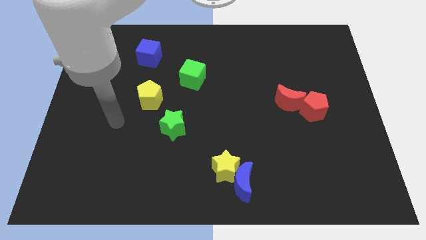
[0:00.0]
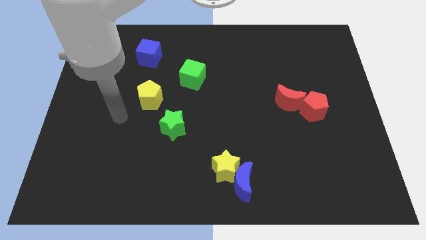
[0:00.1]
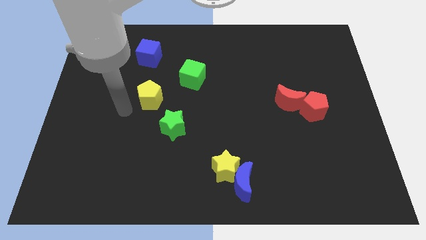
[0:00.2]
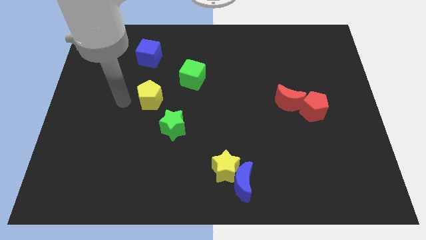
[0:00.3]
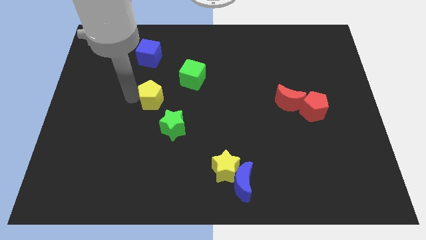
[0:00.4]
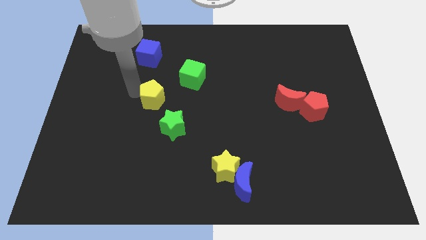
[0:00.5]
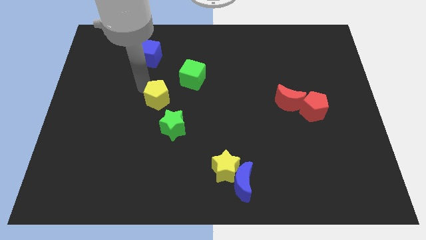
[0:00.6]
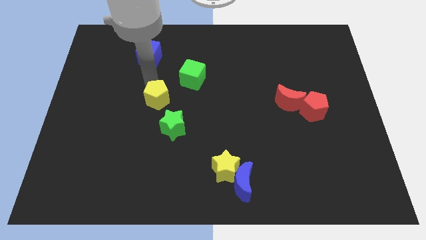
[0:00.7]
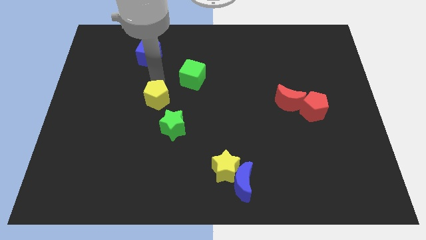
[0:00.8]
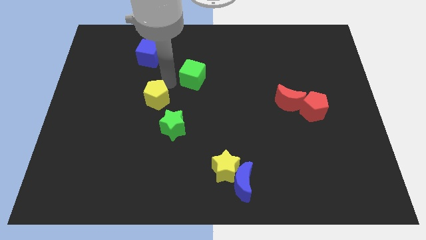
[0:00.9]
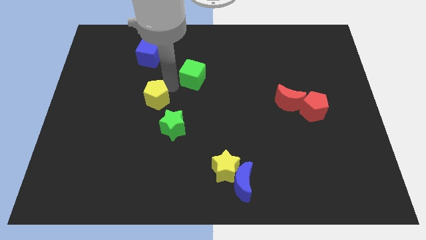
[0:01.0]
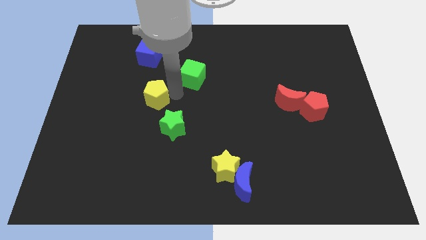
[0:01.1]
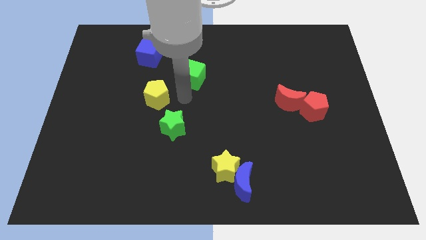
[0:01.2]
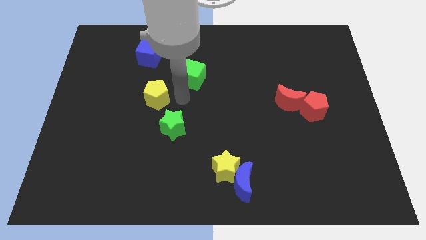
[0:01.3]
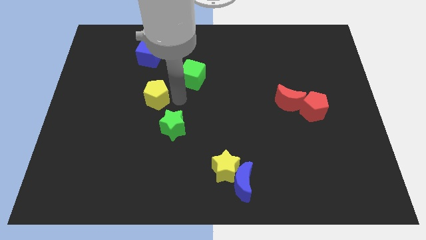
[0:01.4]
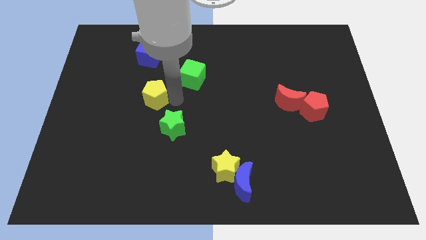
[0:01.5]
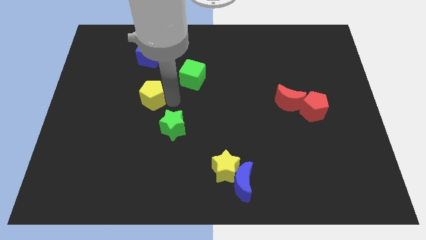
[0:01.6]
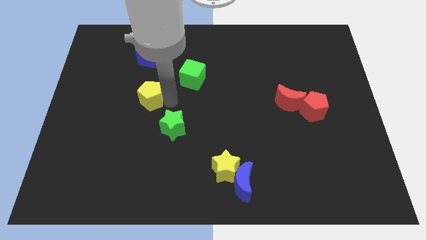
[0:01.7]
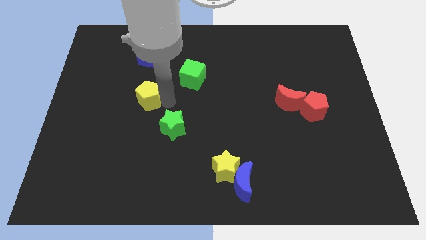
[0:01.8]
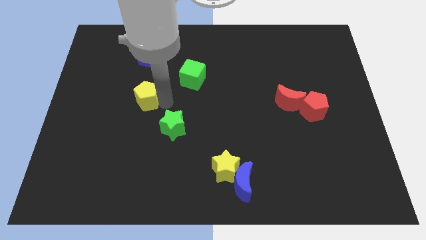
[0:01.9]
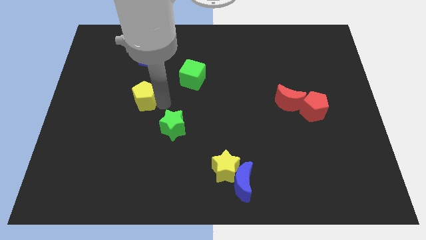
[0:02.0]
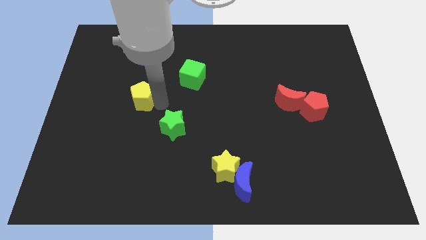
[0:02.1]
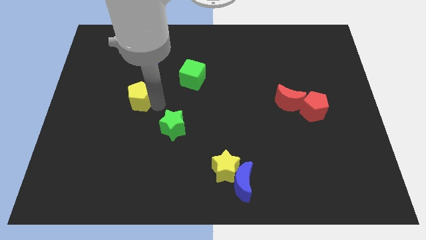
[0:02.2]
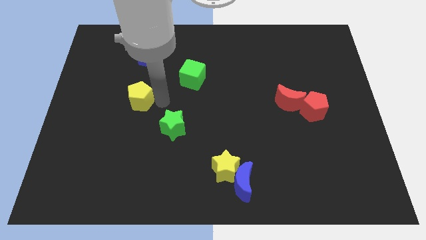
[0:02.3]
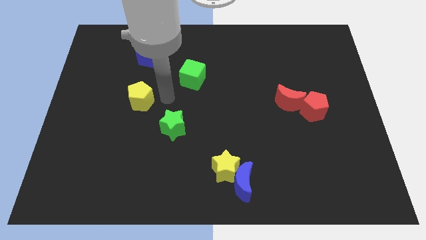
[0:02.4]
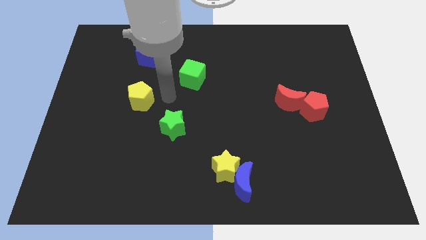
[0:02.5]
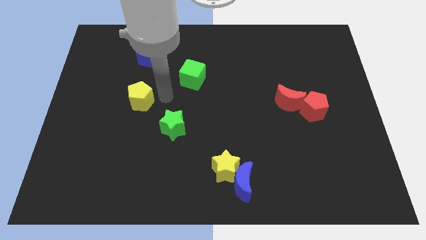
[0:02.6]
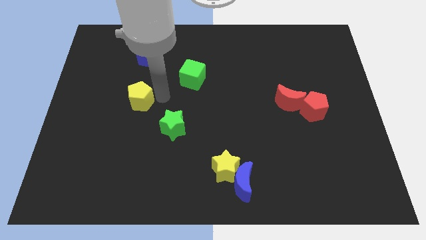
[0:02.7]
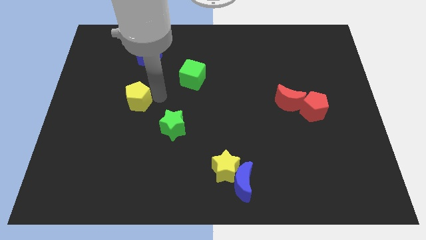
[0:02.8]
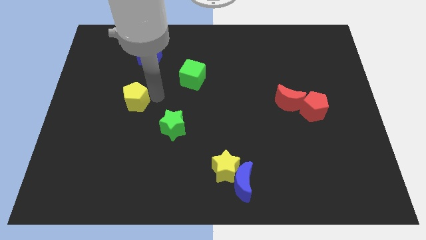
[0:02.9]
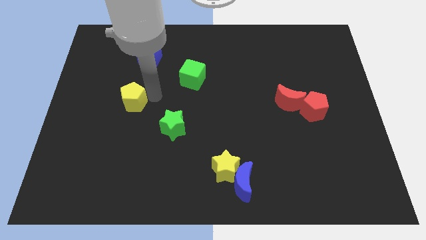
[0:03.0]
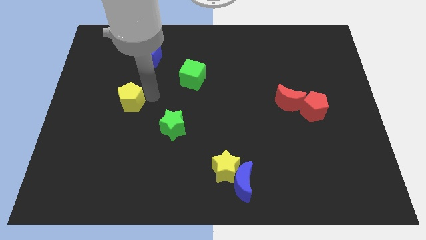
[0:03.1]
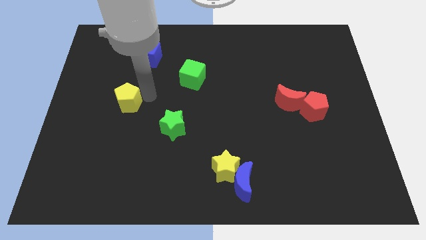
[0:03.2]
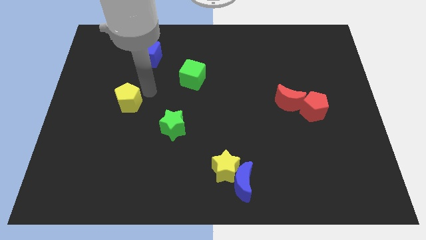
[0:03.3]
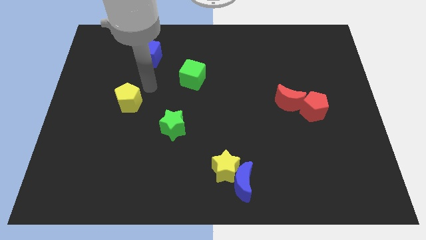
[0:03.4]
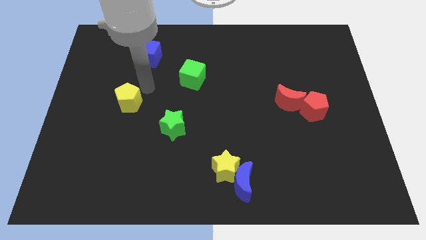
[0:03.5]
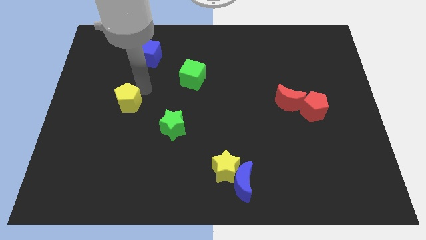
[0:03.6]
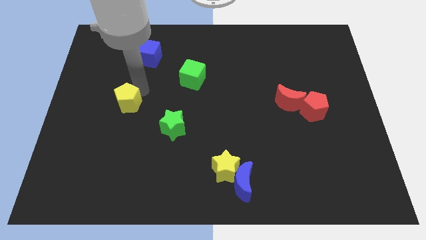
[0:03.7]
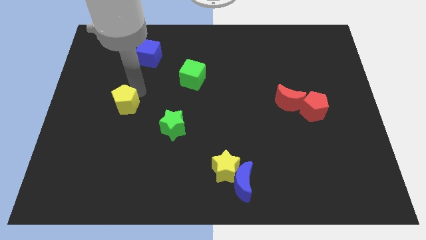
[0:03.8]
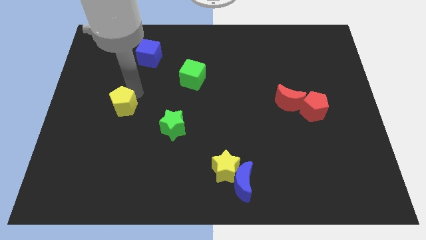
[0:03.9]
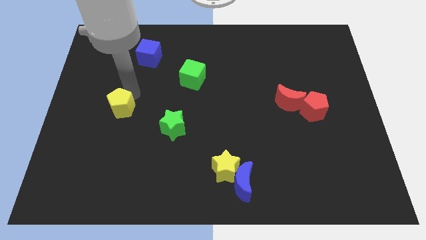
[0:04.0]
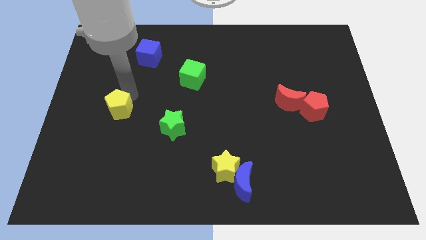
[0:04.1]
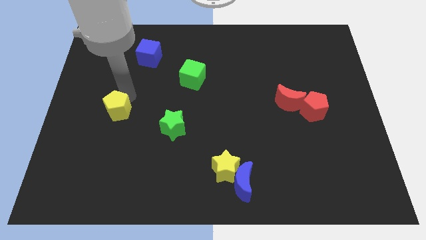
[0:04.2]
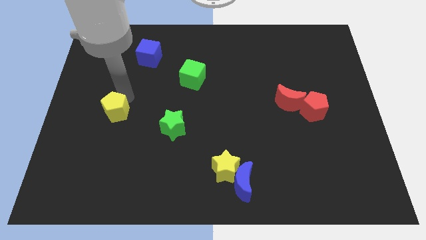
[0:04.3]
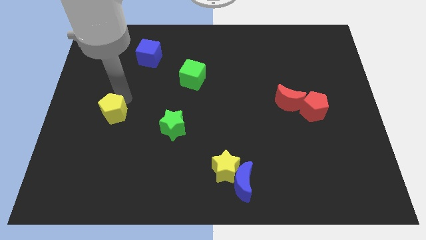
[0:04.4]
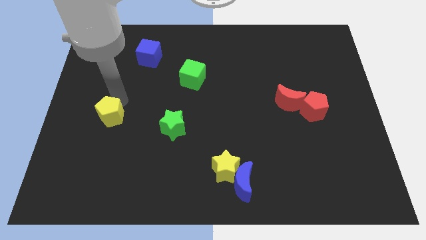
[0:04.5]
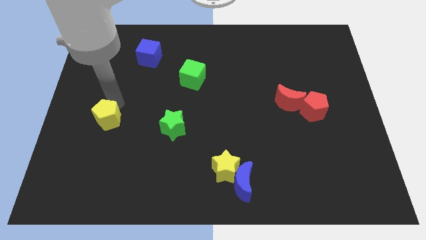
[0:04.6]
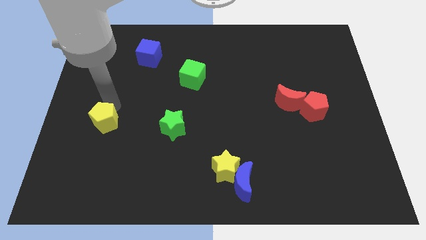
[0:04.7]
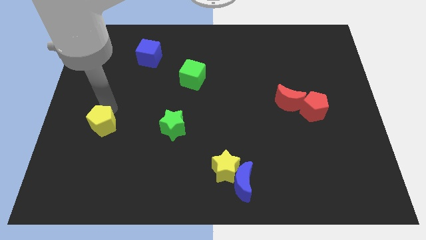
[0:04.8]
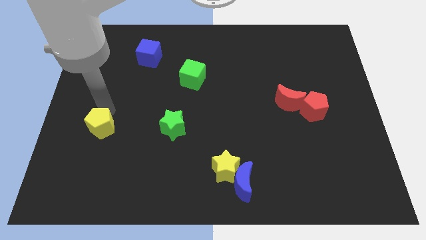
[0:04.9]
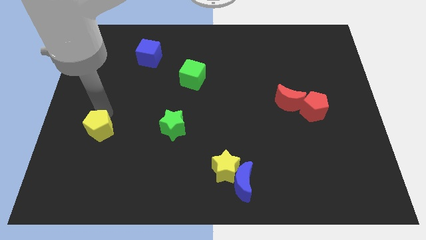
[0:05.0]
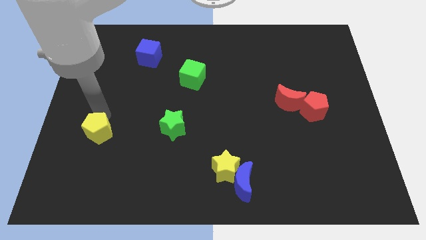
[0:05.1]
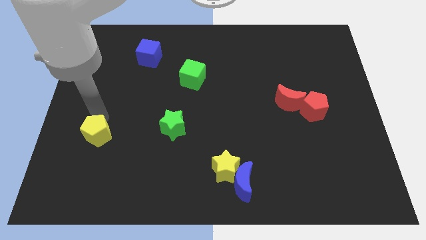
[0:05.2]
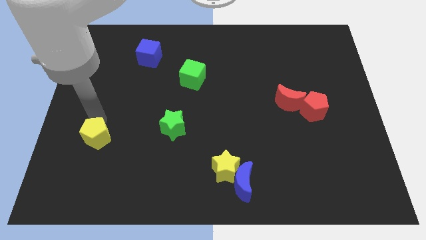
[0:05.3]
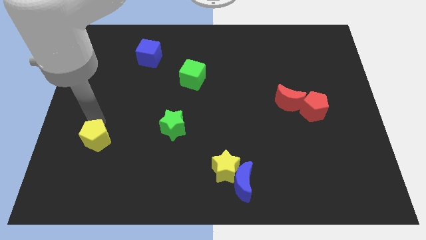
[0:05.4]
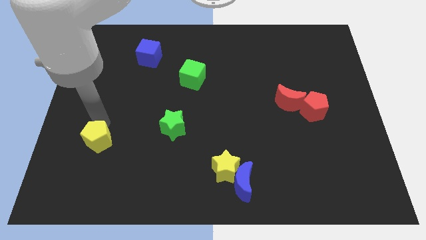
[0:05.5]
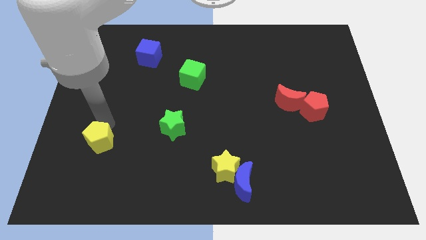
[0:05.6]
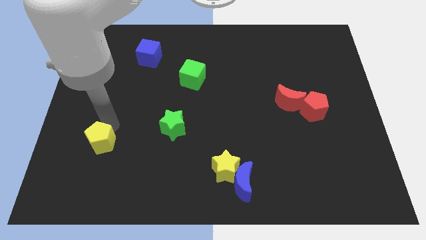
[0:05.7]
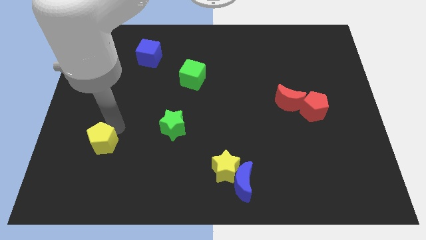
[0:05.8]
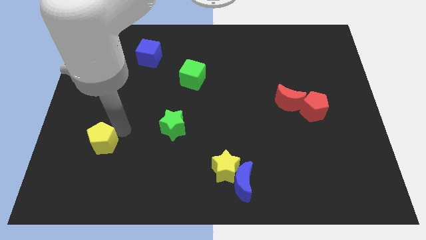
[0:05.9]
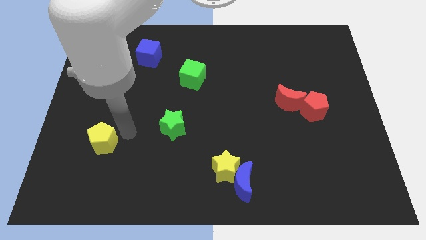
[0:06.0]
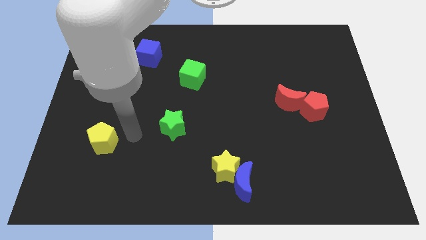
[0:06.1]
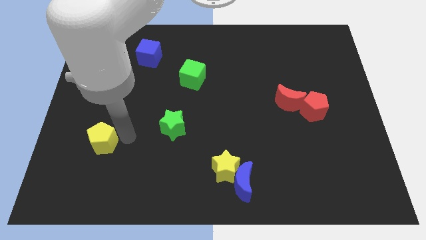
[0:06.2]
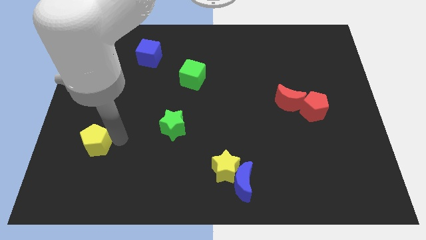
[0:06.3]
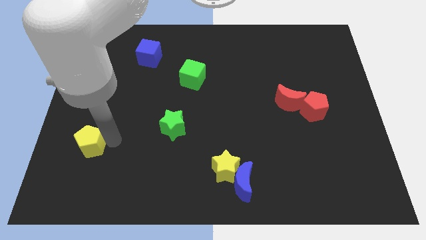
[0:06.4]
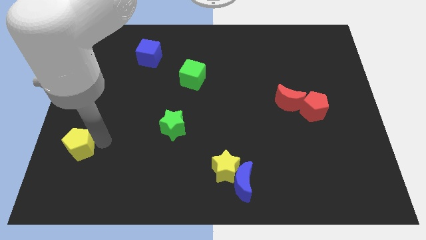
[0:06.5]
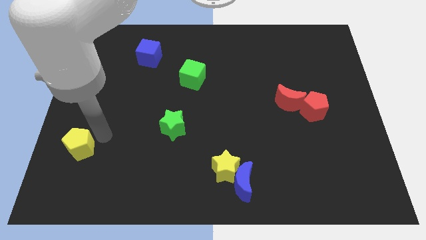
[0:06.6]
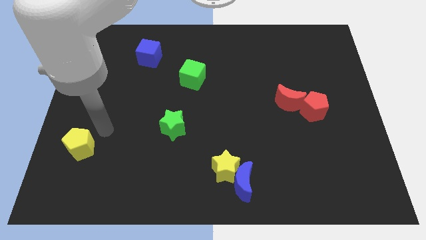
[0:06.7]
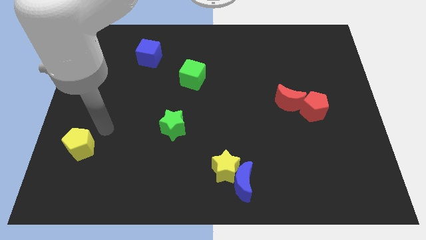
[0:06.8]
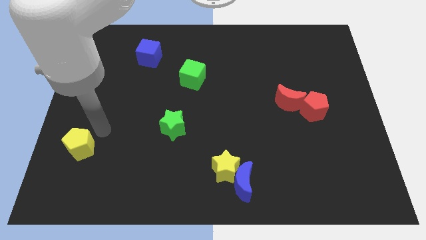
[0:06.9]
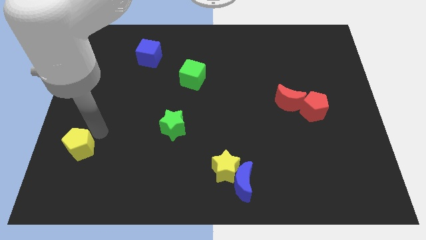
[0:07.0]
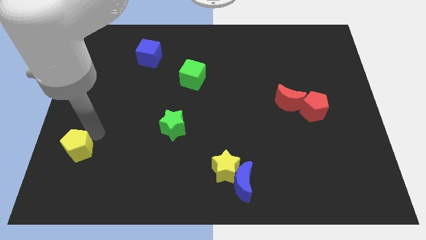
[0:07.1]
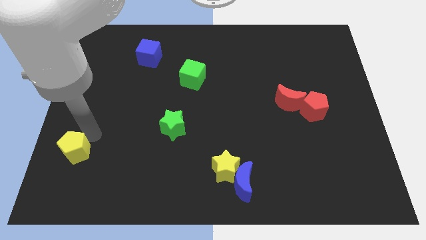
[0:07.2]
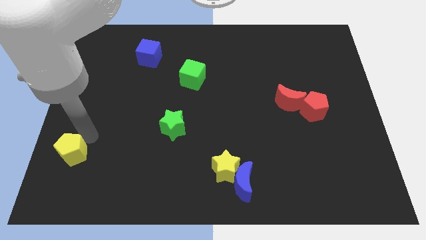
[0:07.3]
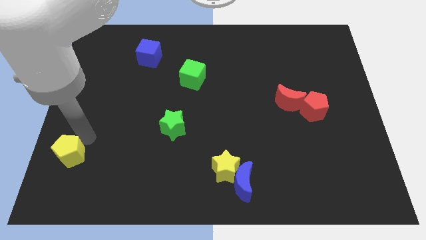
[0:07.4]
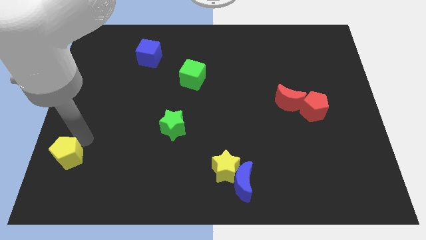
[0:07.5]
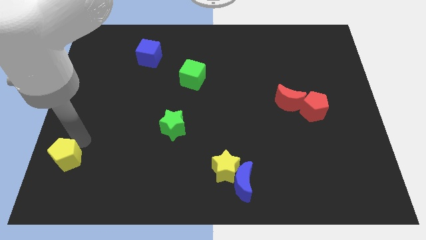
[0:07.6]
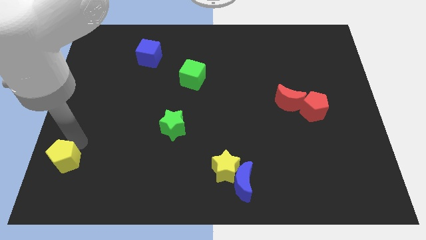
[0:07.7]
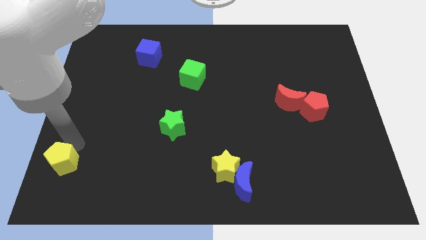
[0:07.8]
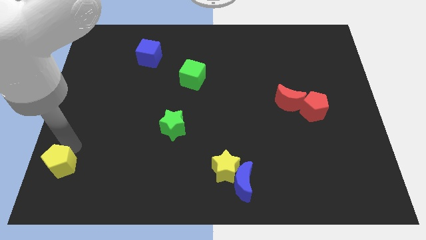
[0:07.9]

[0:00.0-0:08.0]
push the yellow pentagon to the bottom left corner
